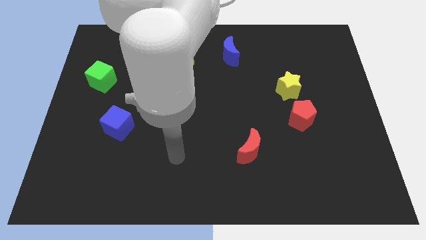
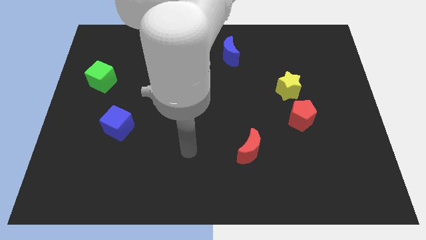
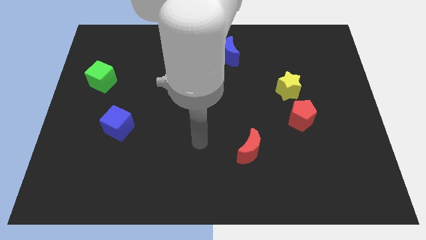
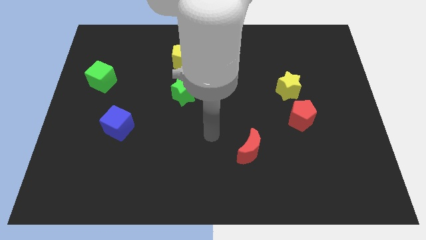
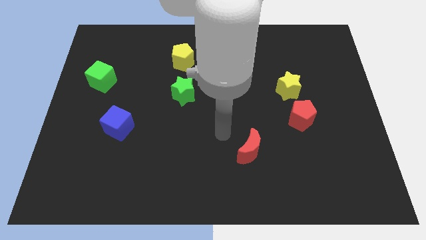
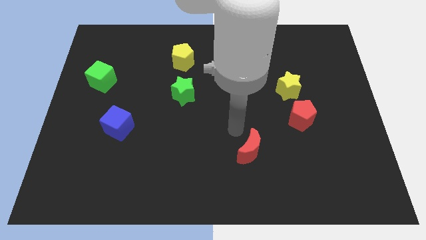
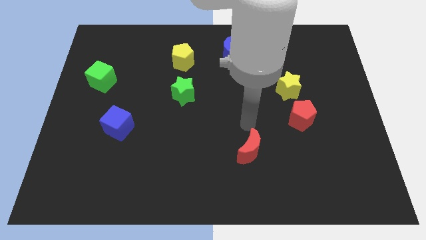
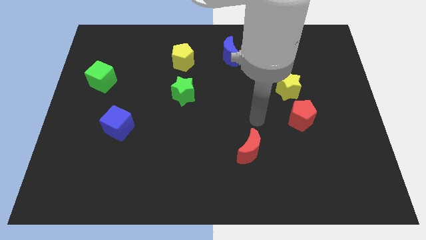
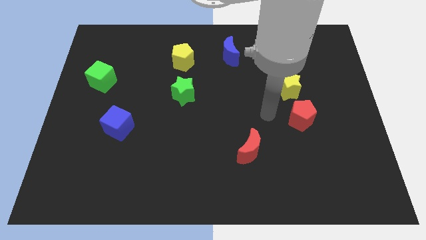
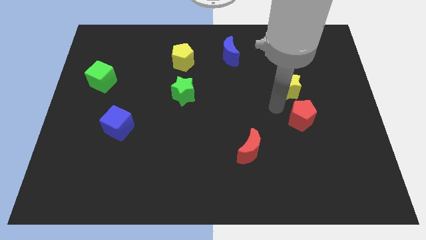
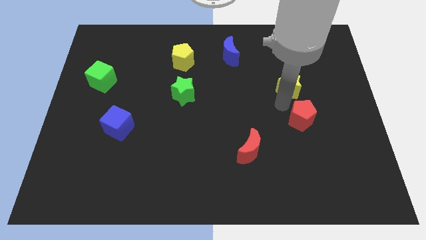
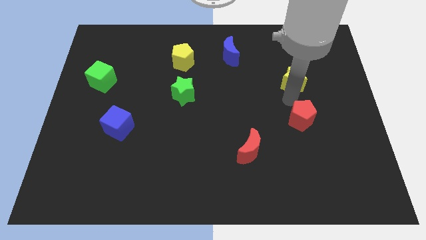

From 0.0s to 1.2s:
move the red pentagon away from the yellow star

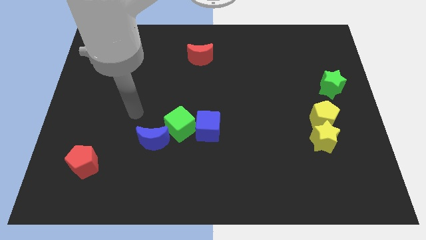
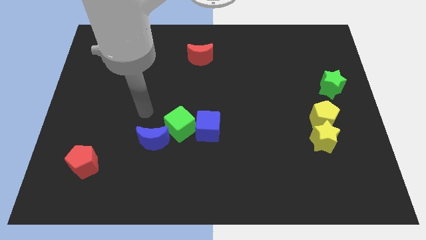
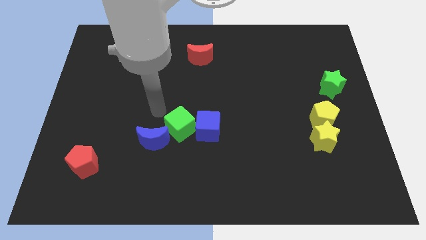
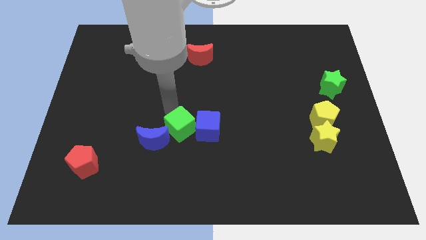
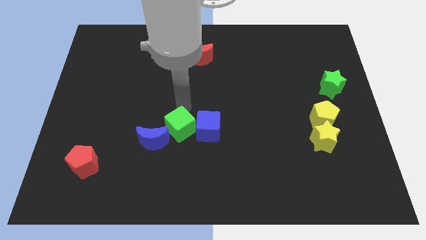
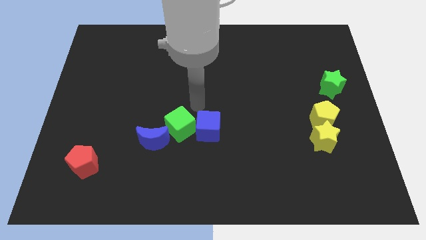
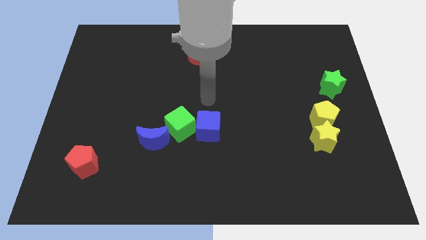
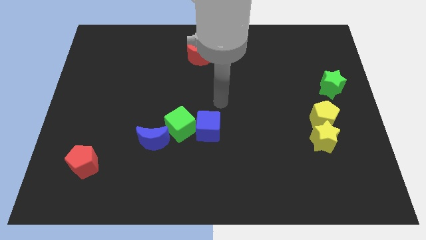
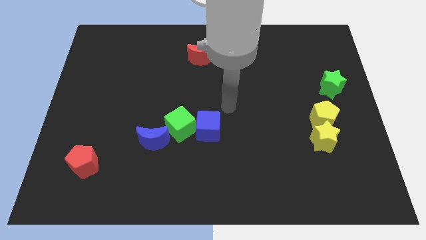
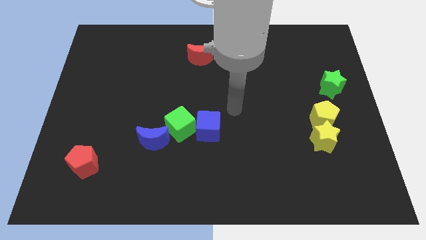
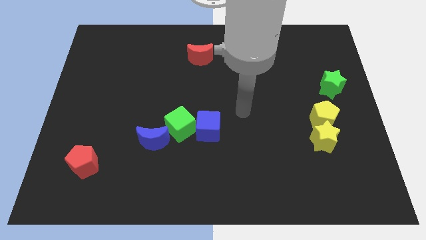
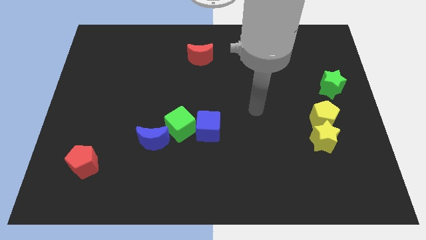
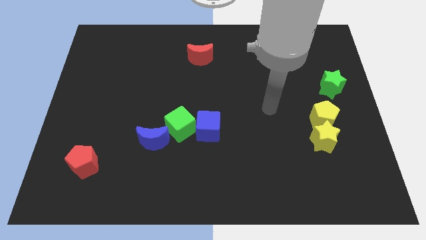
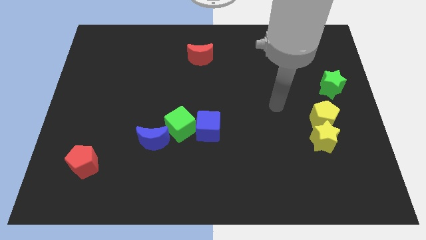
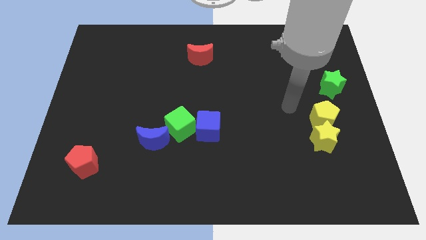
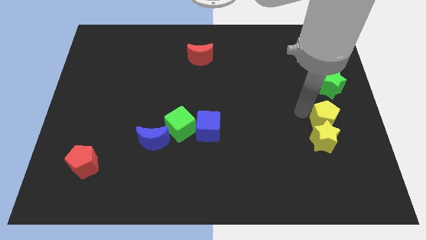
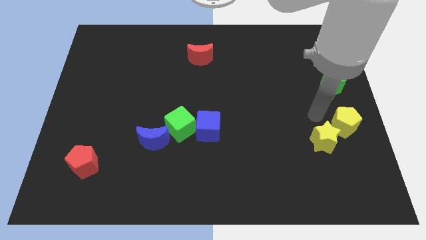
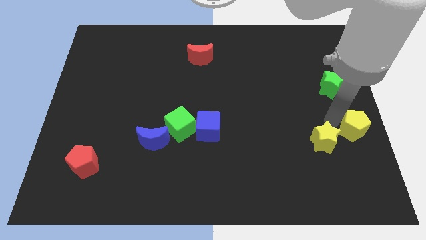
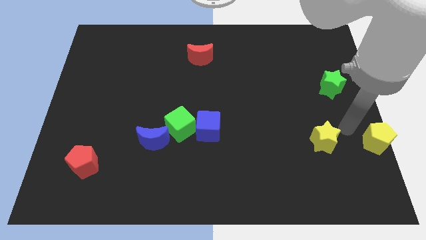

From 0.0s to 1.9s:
pull the yellow star apart from the yellow pentagon

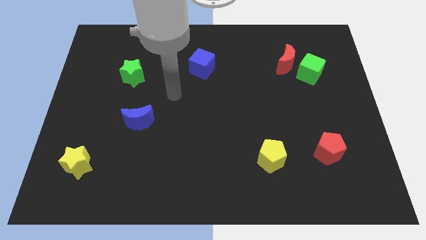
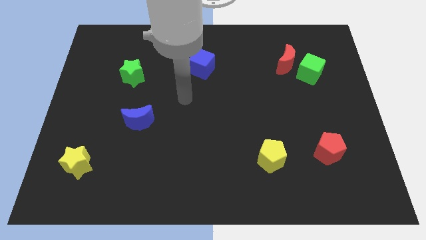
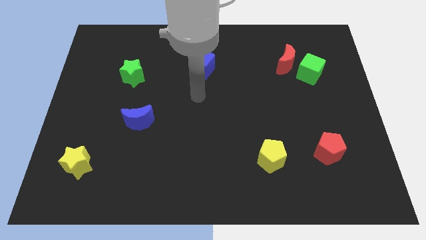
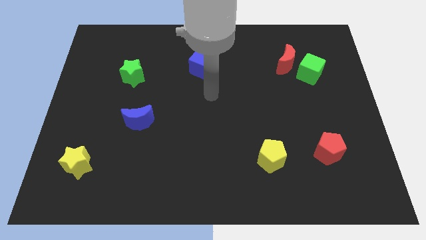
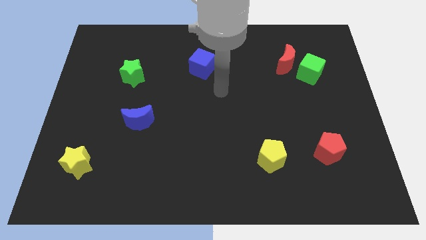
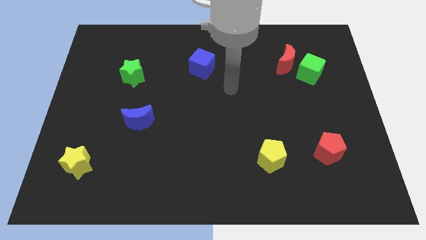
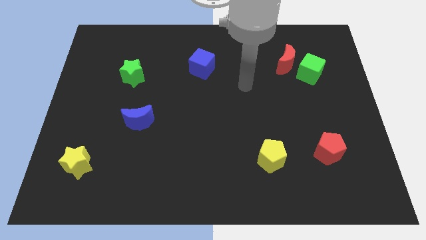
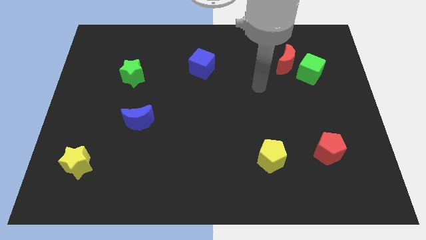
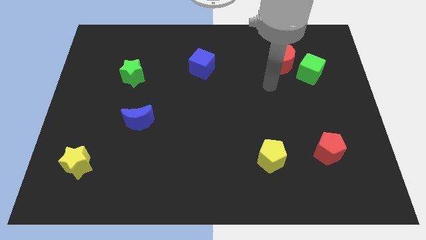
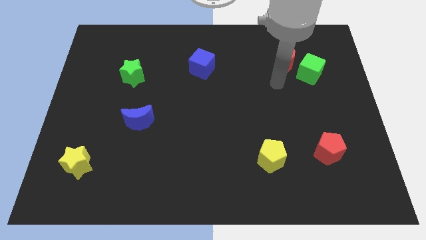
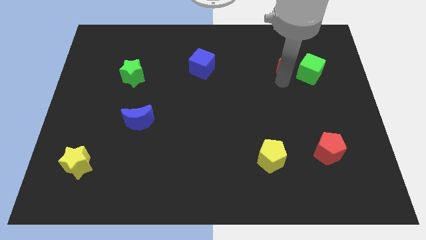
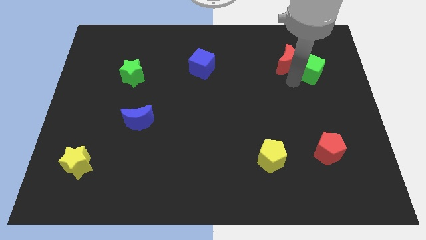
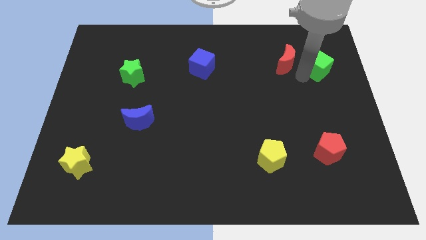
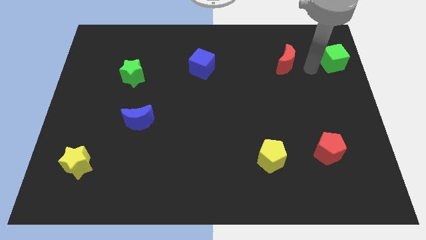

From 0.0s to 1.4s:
move the red moon away from the green cube

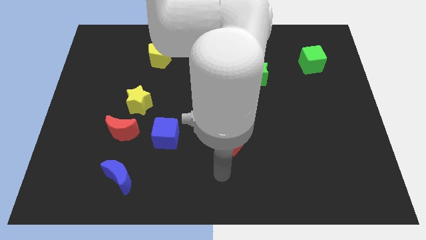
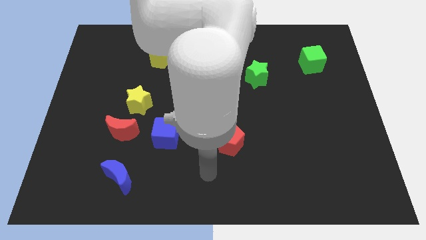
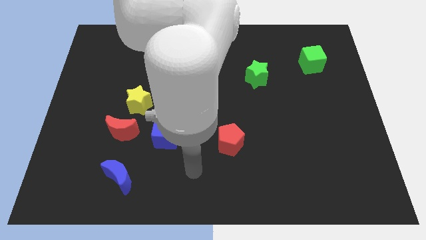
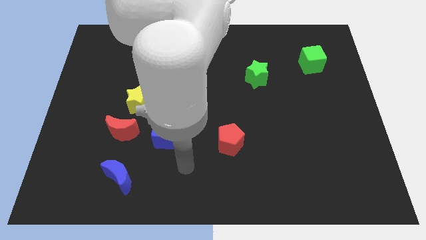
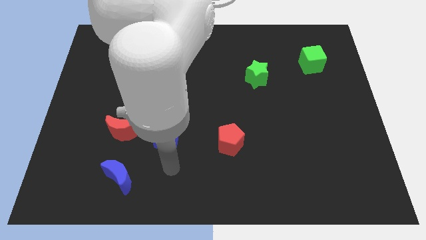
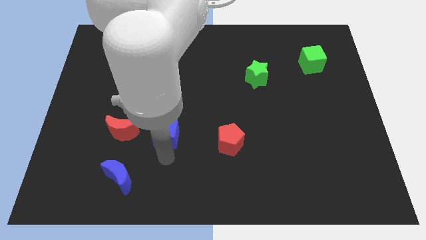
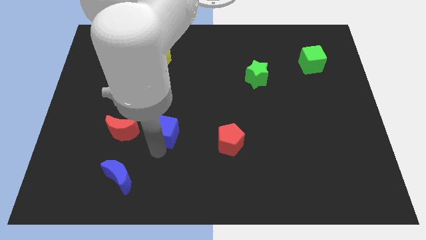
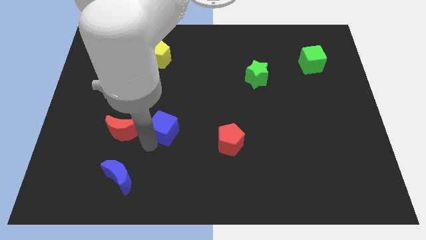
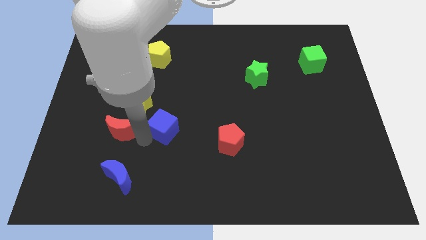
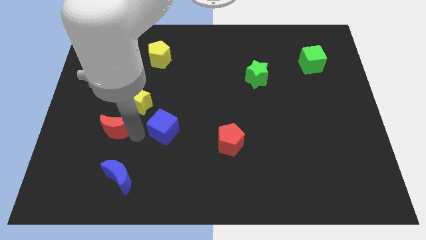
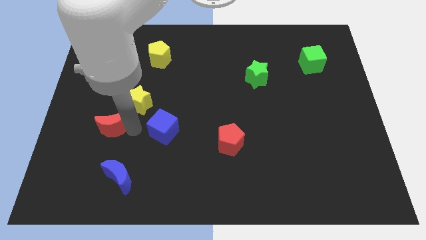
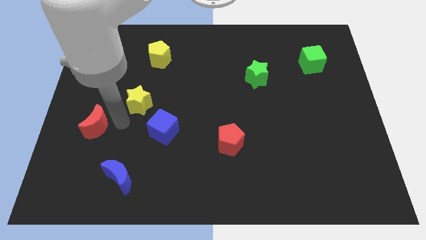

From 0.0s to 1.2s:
move the yellow star away from the red moon

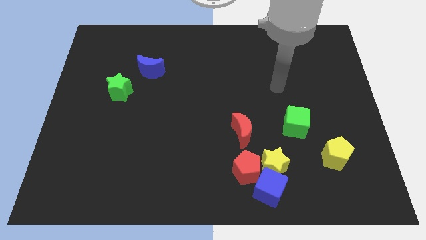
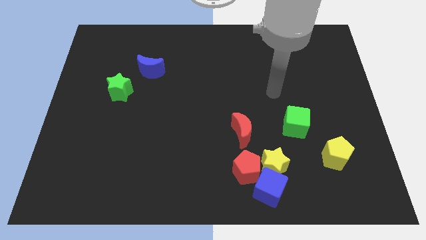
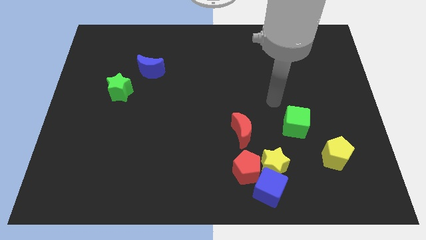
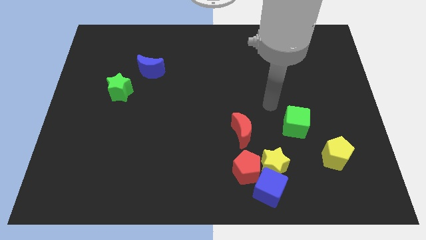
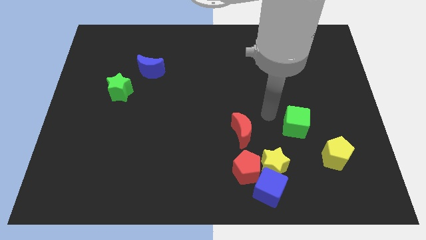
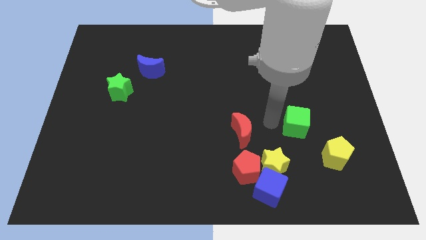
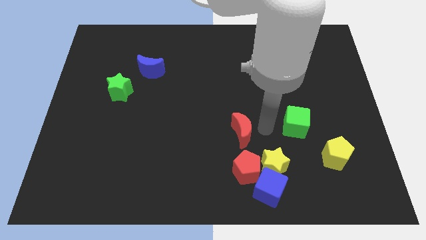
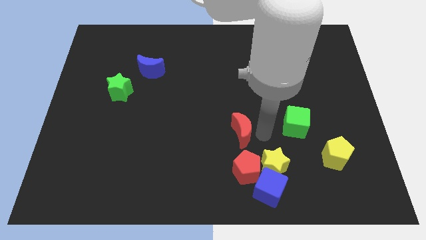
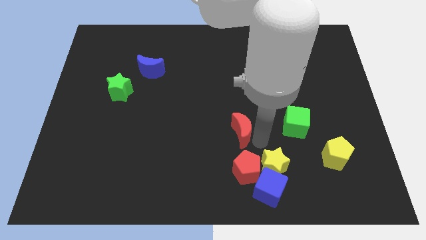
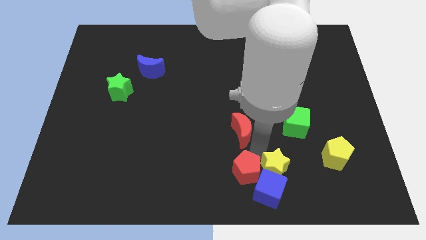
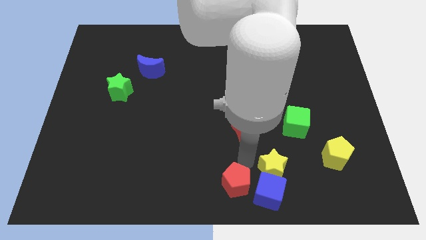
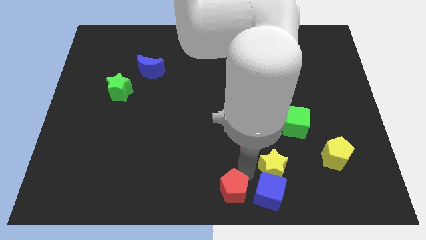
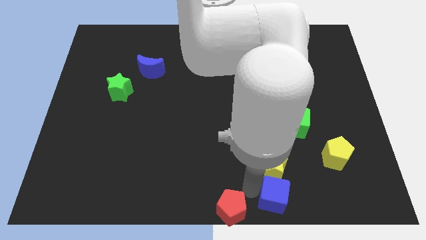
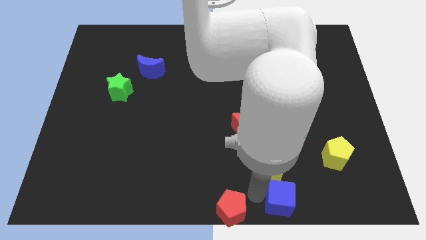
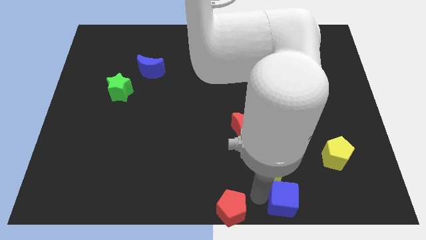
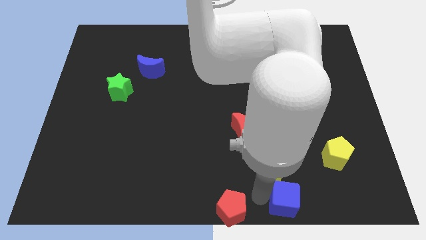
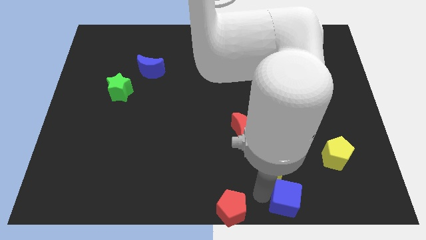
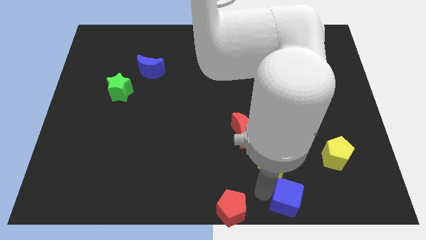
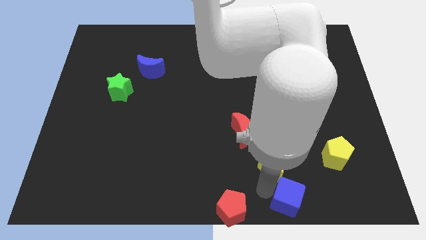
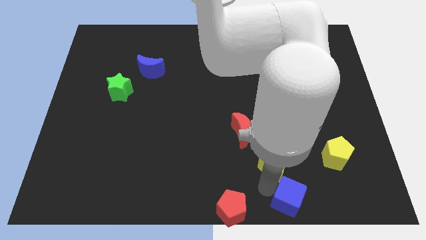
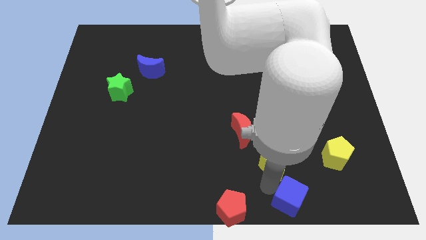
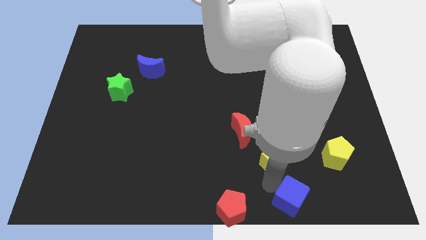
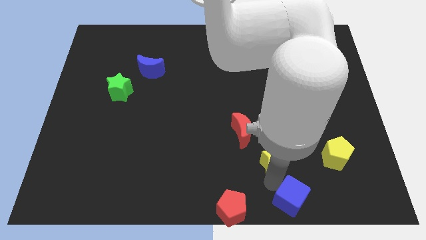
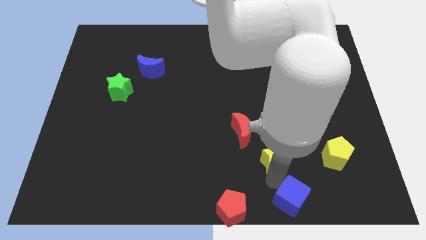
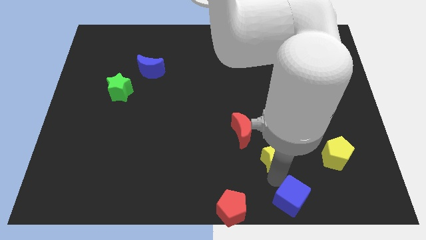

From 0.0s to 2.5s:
pull the yellow star apart from the blue cube and red pentagon

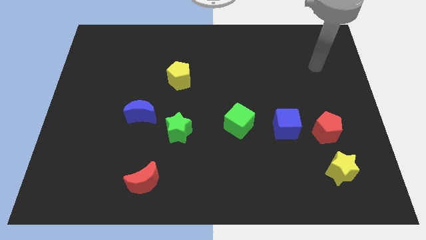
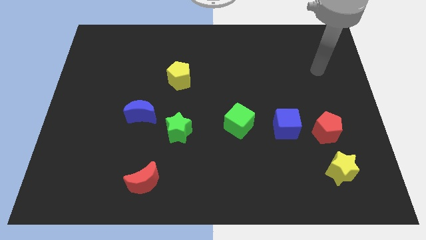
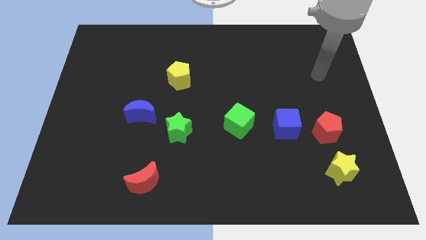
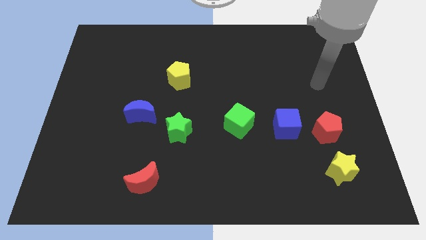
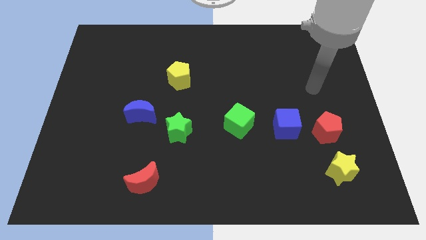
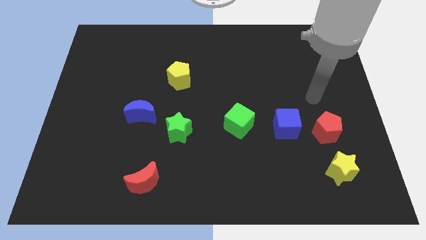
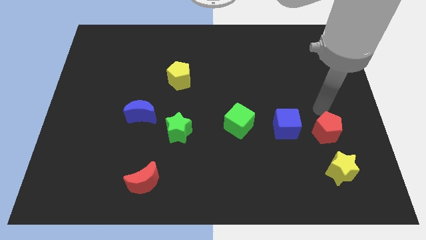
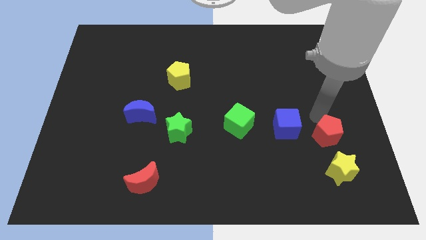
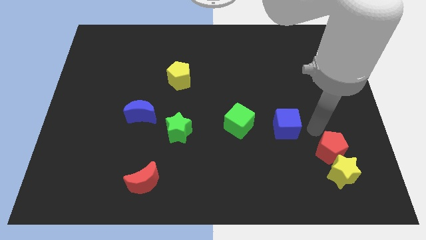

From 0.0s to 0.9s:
move the blue cube away from the red pentagon

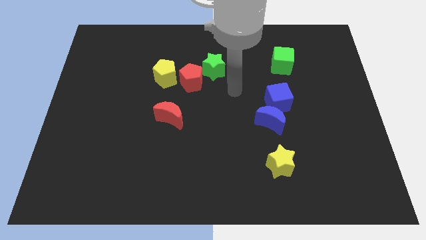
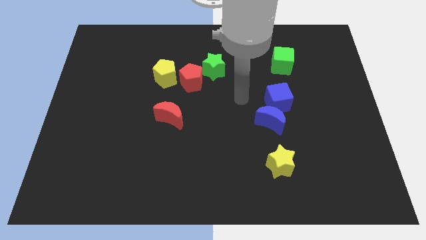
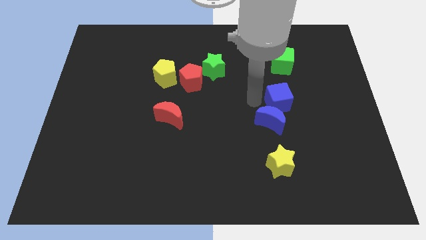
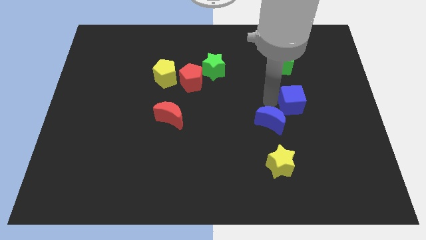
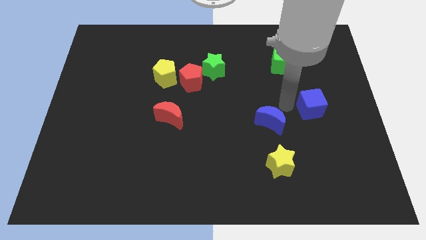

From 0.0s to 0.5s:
pull the blue moon apart from the blue cube
